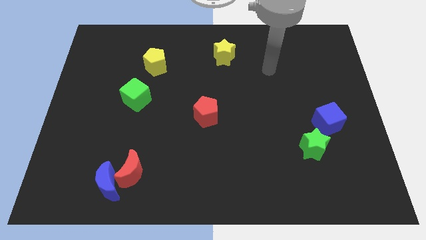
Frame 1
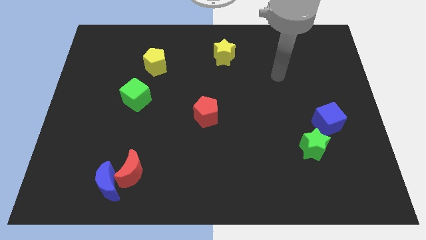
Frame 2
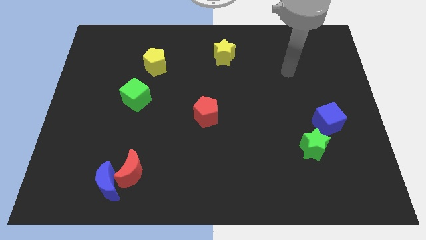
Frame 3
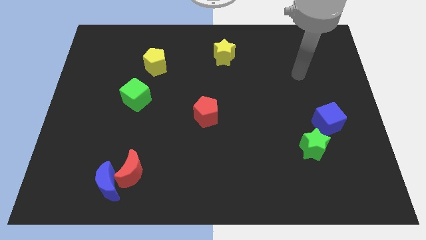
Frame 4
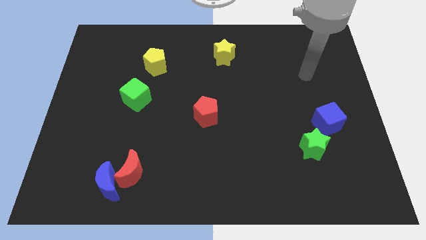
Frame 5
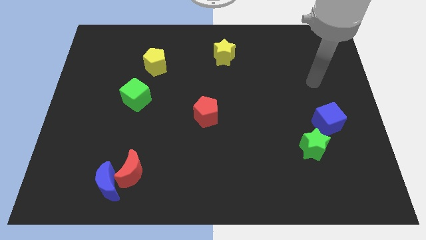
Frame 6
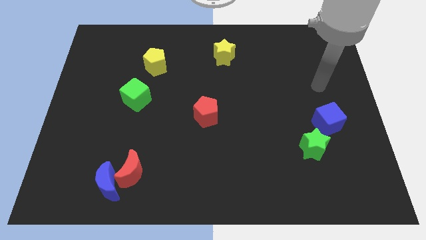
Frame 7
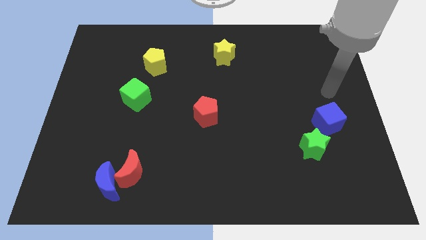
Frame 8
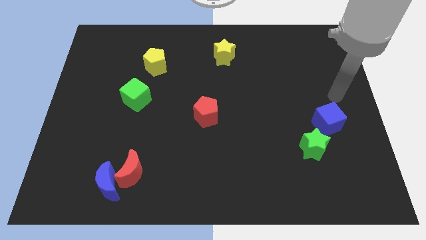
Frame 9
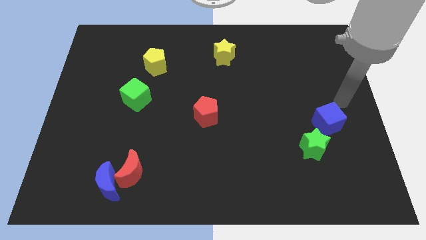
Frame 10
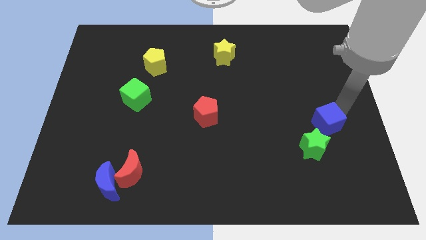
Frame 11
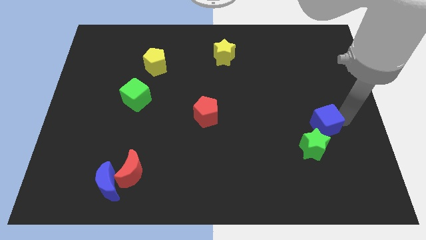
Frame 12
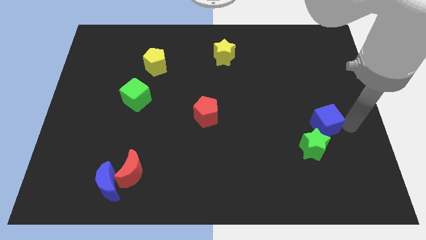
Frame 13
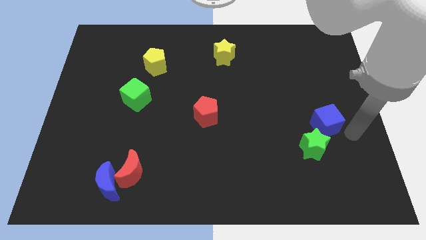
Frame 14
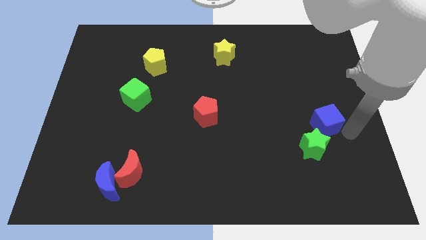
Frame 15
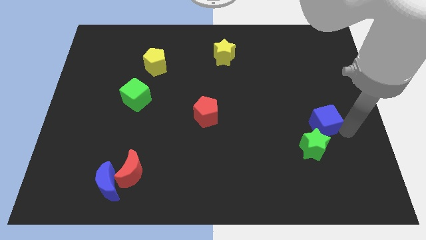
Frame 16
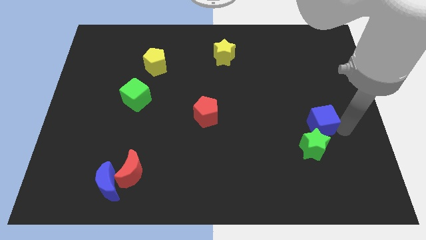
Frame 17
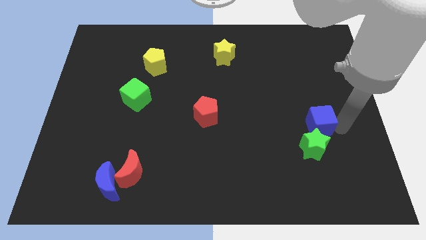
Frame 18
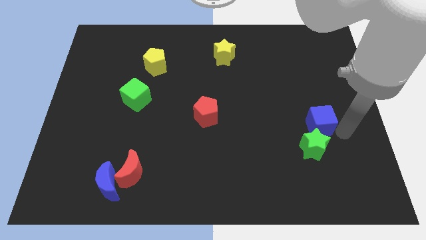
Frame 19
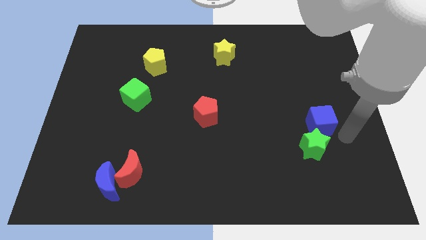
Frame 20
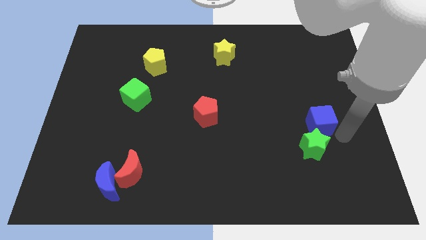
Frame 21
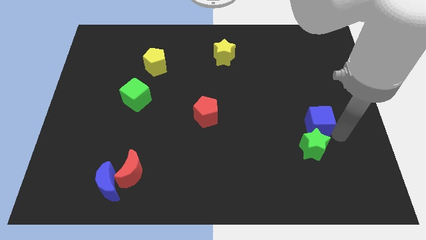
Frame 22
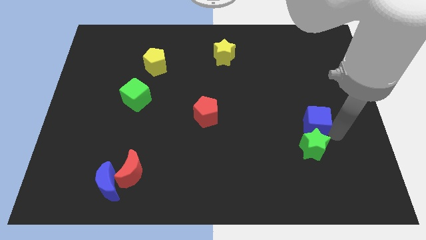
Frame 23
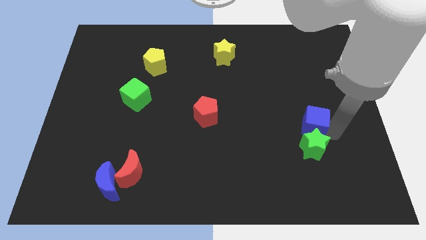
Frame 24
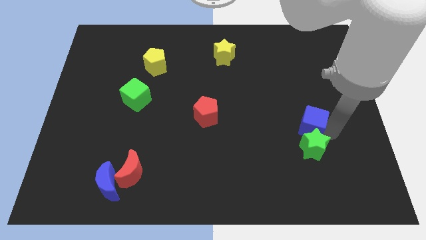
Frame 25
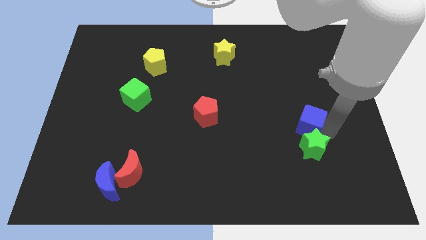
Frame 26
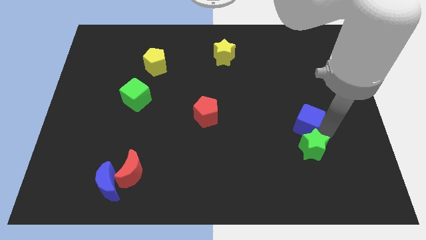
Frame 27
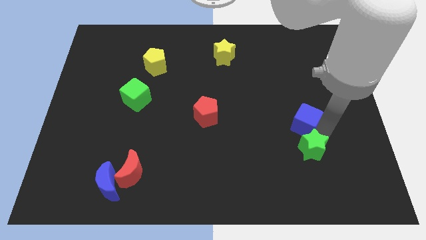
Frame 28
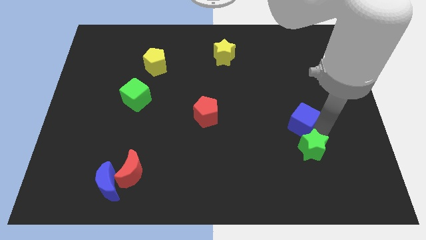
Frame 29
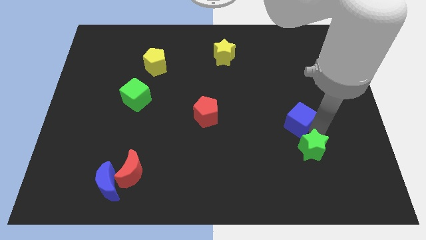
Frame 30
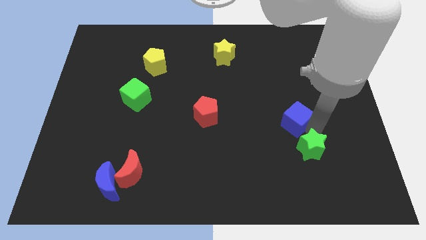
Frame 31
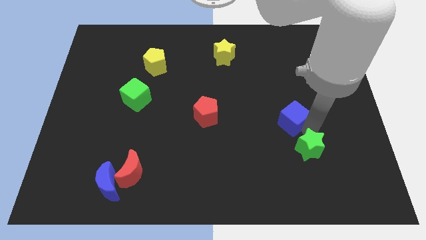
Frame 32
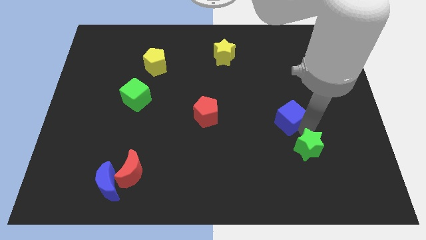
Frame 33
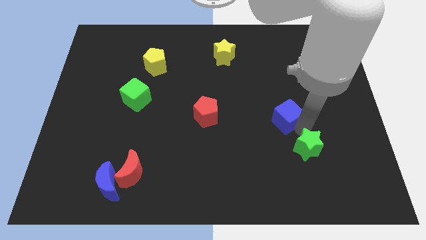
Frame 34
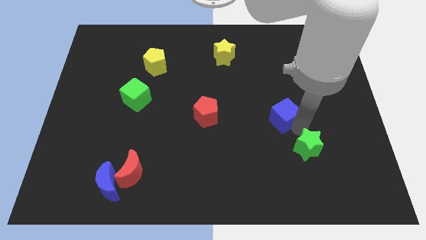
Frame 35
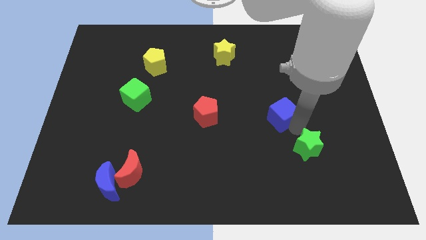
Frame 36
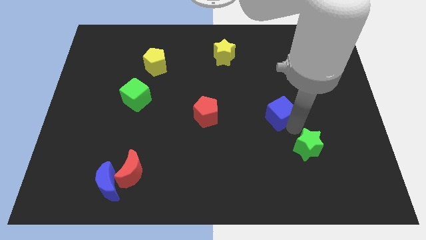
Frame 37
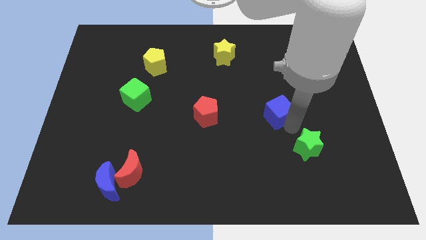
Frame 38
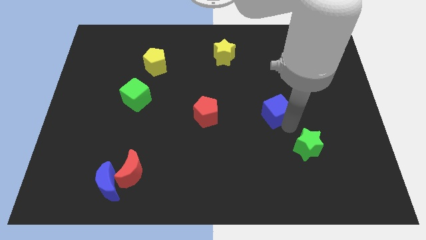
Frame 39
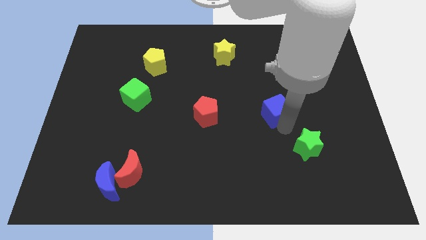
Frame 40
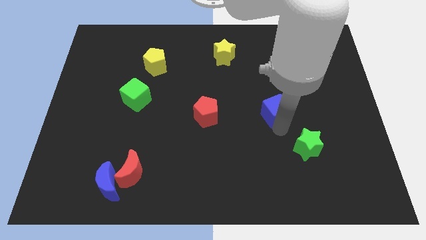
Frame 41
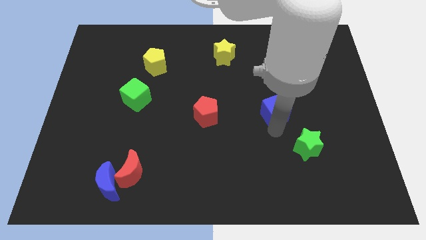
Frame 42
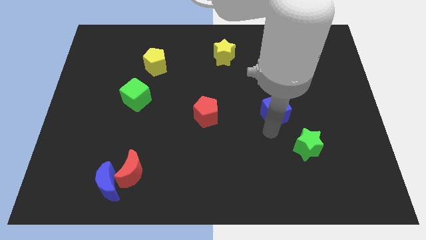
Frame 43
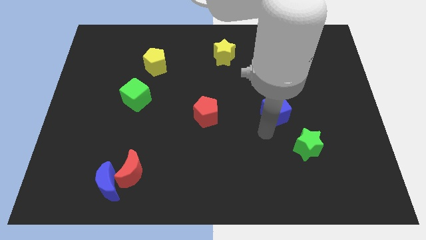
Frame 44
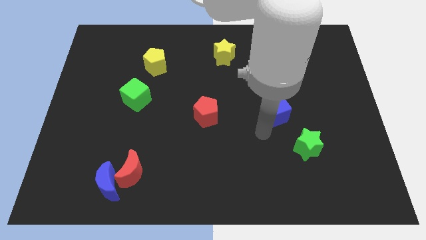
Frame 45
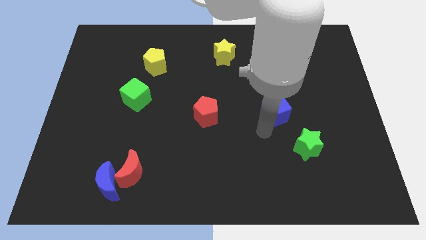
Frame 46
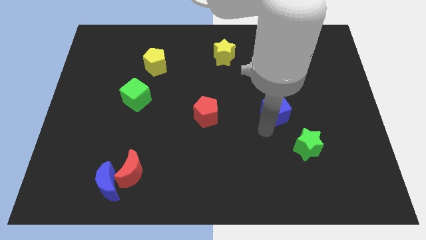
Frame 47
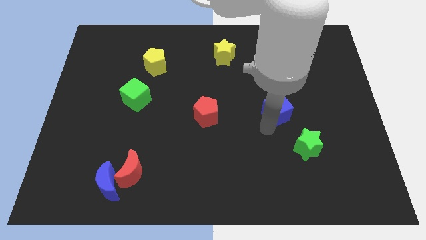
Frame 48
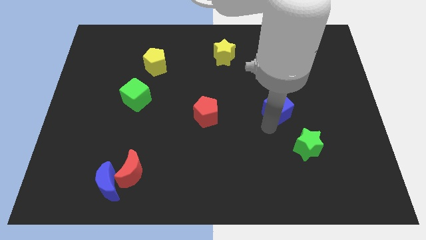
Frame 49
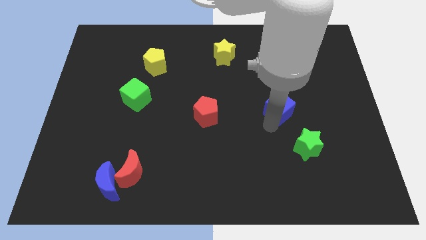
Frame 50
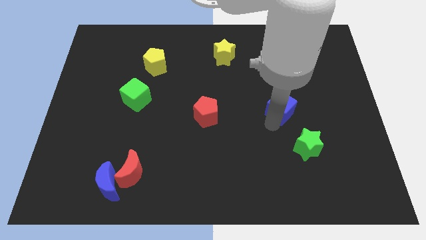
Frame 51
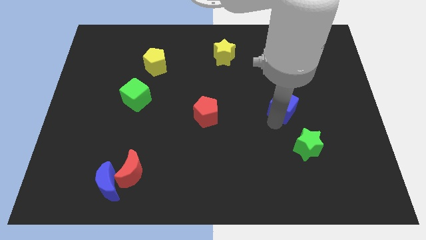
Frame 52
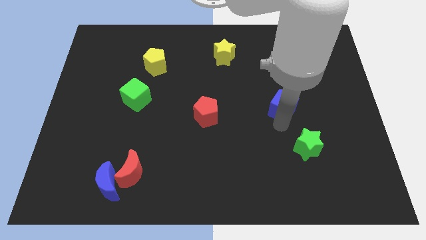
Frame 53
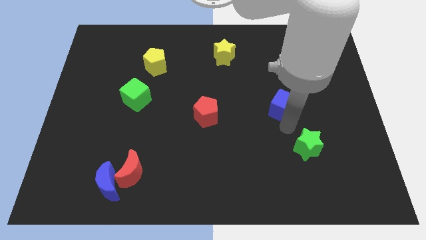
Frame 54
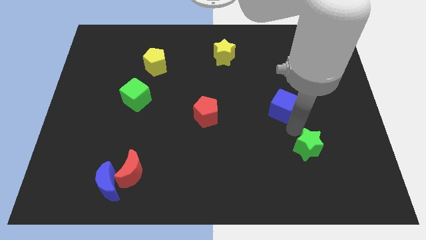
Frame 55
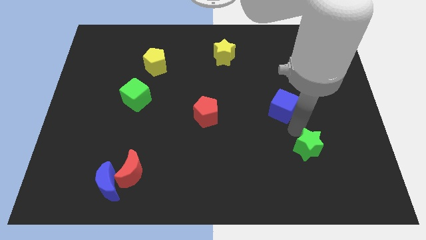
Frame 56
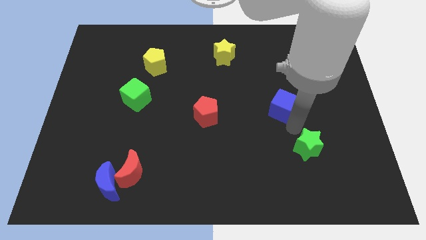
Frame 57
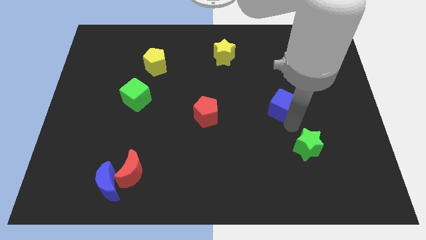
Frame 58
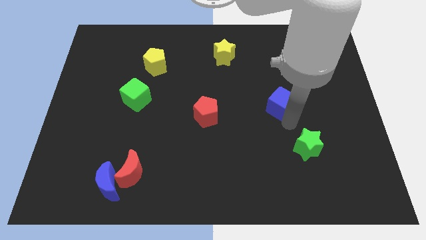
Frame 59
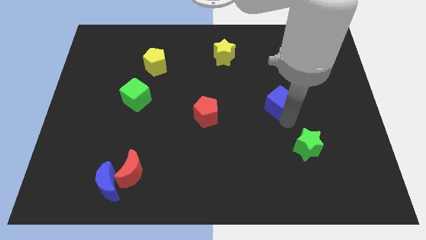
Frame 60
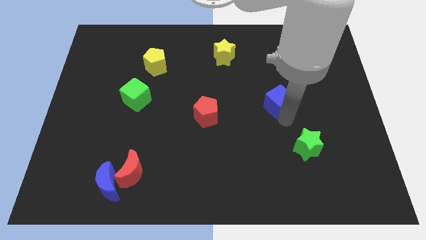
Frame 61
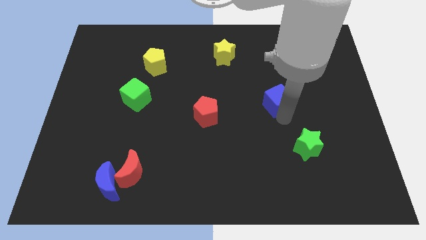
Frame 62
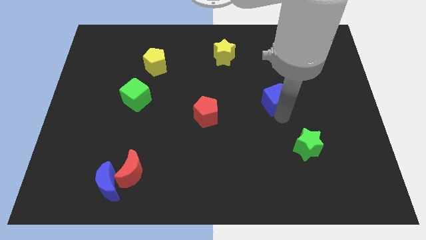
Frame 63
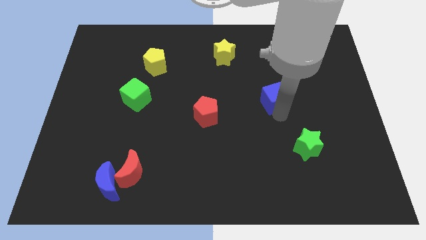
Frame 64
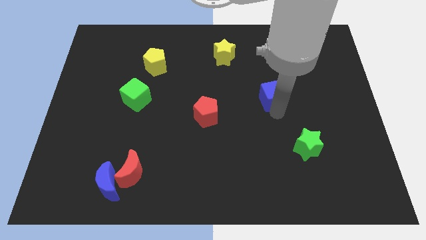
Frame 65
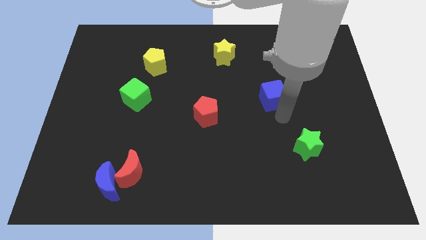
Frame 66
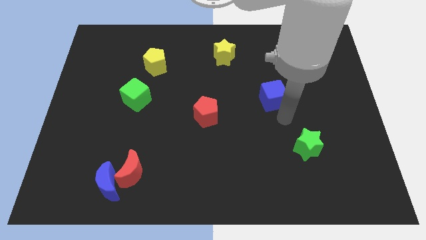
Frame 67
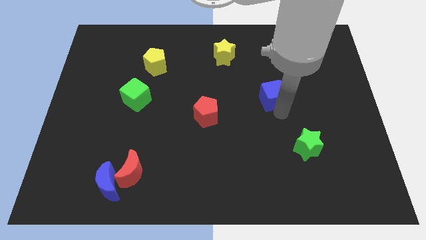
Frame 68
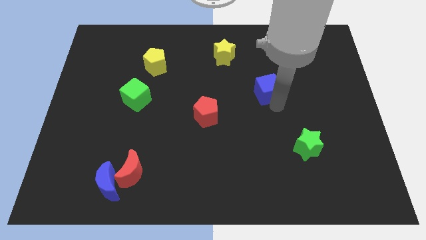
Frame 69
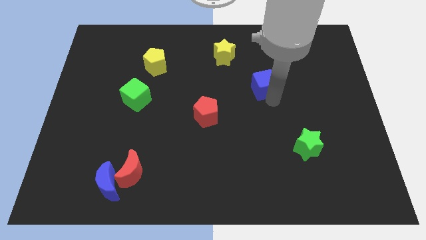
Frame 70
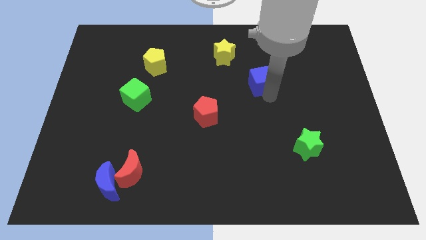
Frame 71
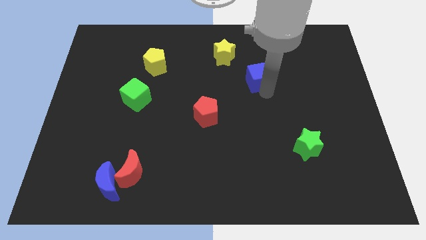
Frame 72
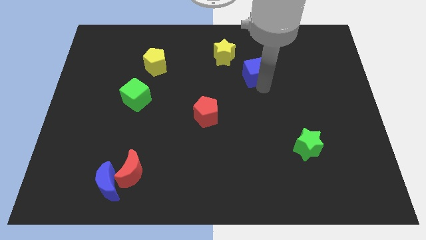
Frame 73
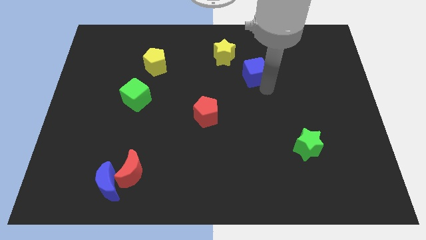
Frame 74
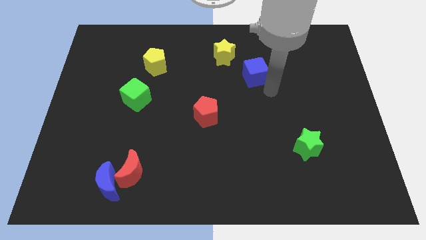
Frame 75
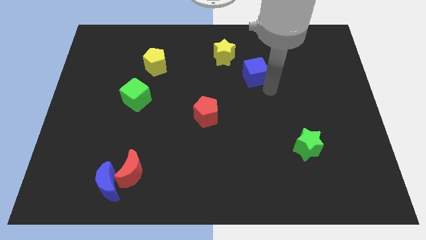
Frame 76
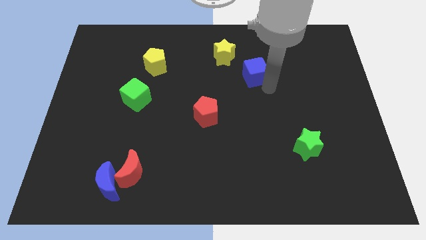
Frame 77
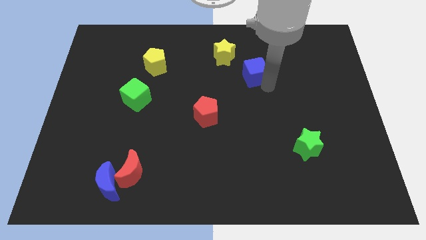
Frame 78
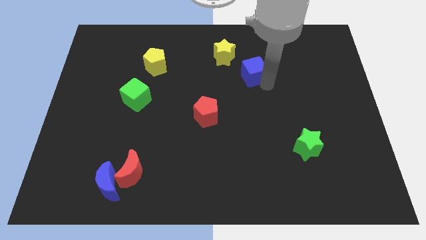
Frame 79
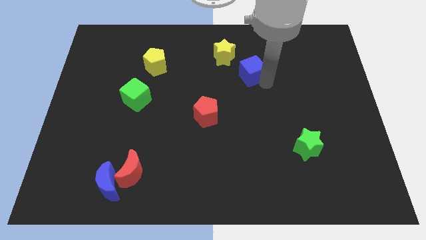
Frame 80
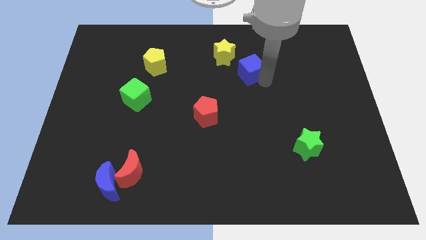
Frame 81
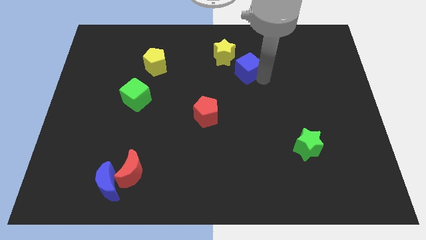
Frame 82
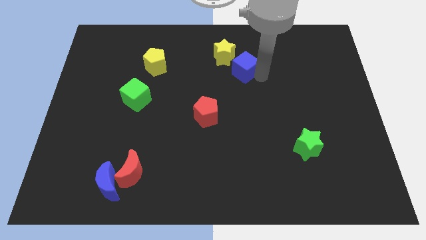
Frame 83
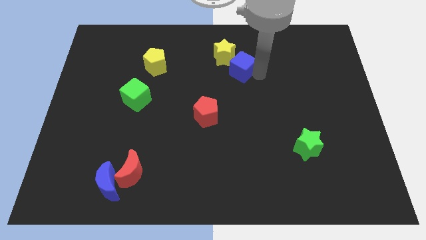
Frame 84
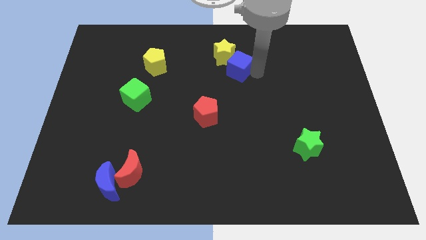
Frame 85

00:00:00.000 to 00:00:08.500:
put the blue cube close to the yellow star
